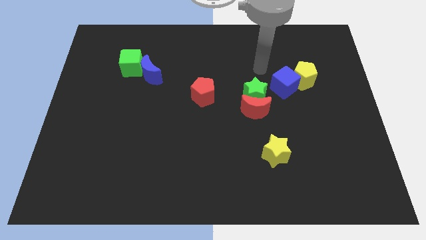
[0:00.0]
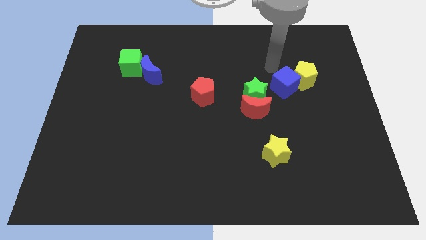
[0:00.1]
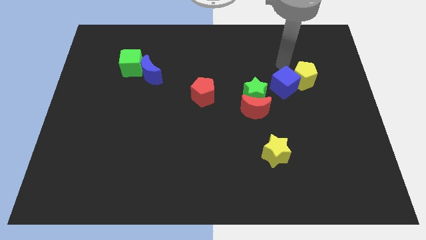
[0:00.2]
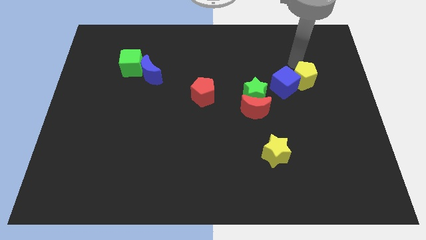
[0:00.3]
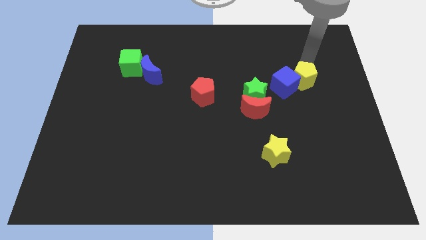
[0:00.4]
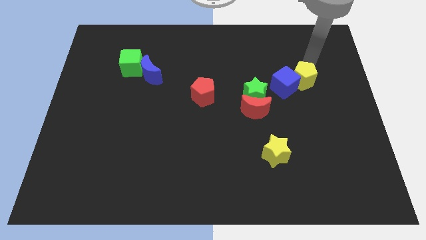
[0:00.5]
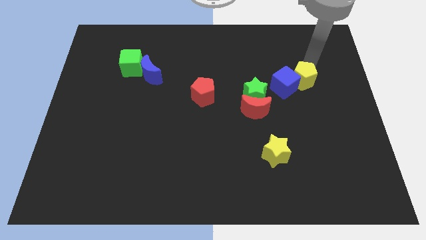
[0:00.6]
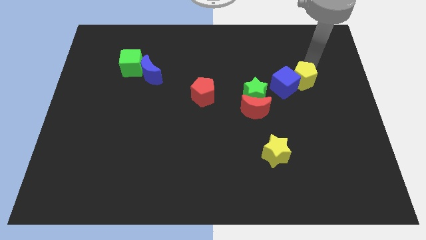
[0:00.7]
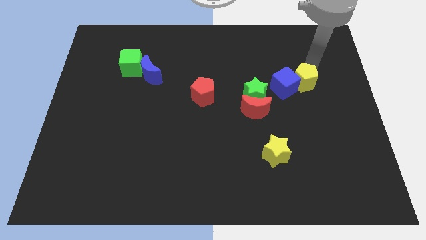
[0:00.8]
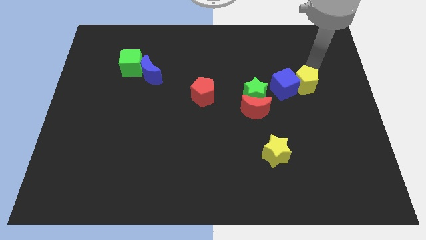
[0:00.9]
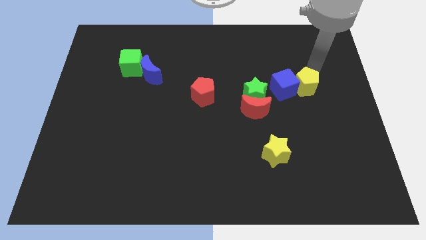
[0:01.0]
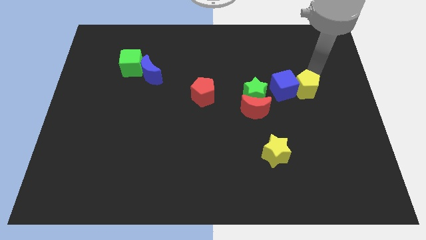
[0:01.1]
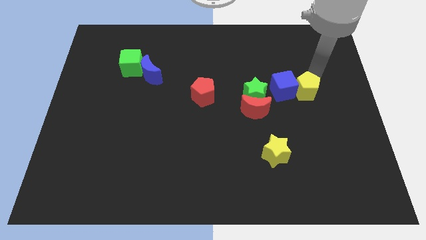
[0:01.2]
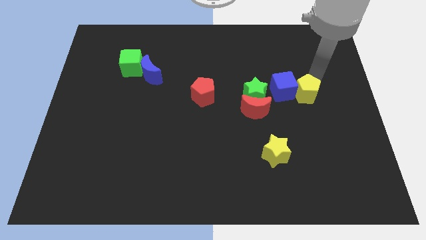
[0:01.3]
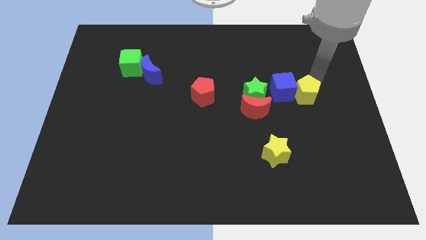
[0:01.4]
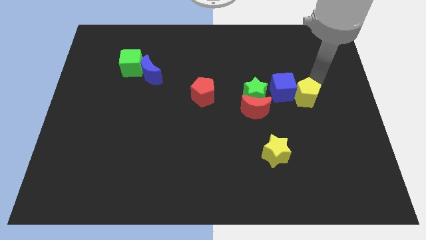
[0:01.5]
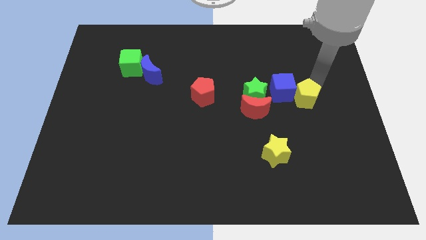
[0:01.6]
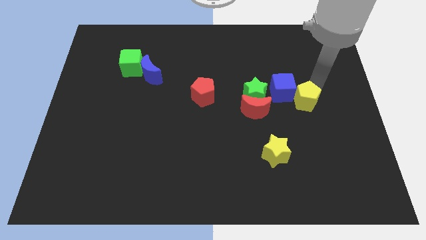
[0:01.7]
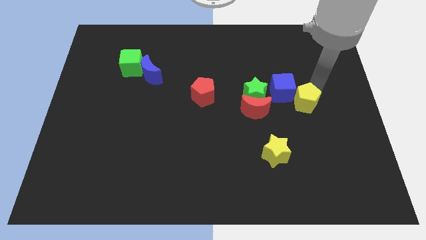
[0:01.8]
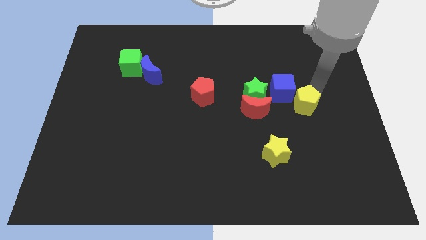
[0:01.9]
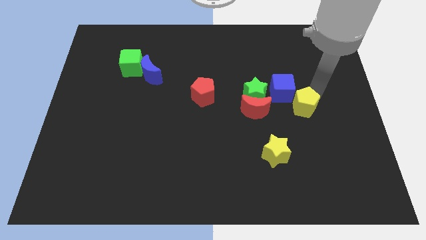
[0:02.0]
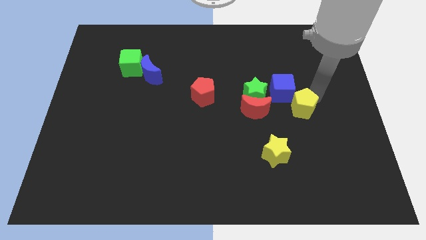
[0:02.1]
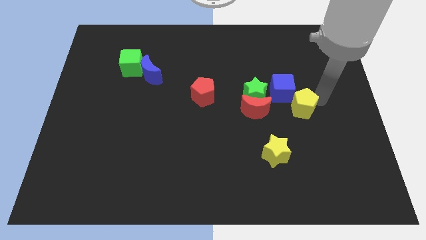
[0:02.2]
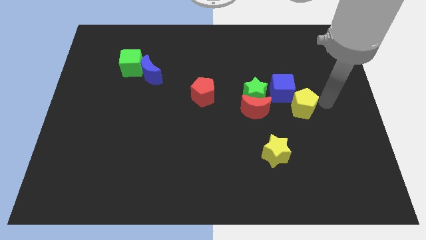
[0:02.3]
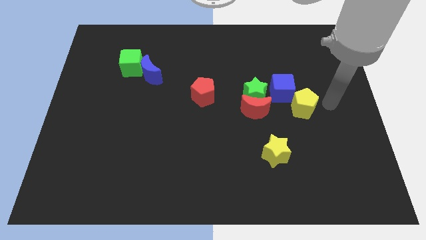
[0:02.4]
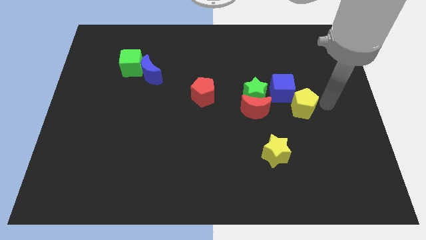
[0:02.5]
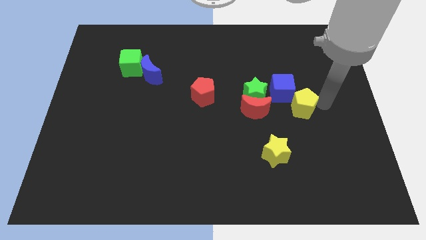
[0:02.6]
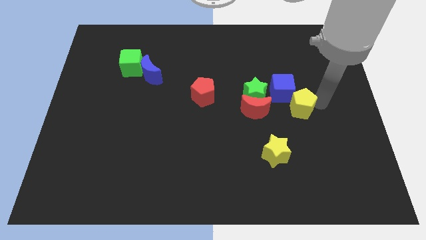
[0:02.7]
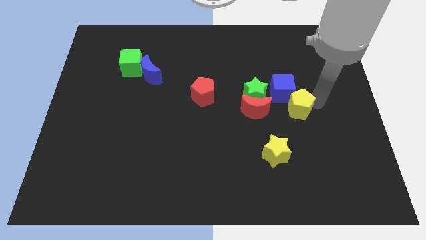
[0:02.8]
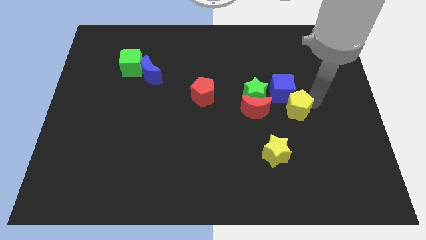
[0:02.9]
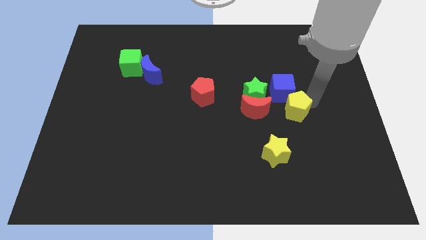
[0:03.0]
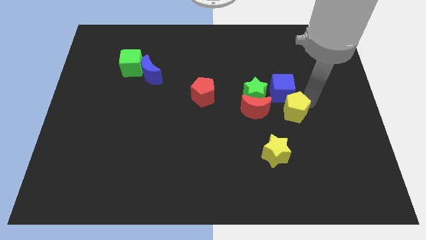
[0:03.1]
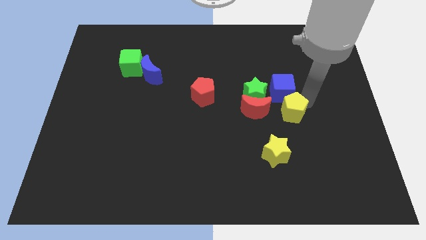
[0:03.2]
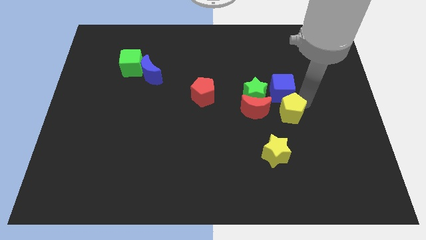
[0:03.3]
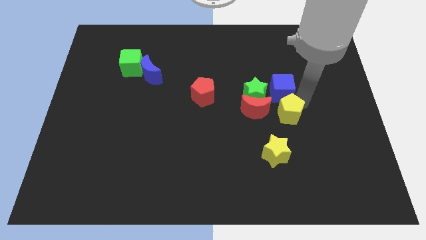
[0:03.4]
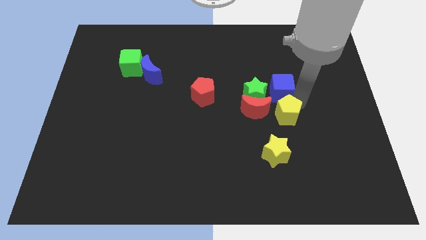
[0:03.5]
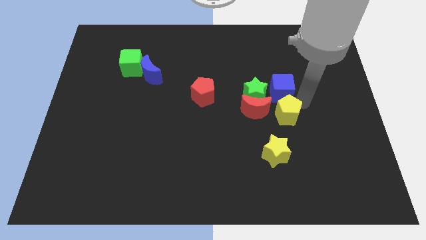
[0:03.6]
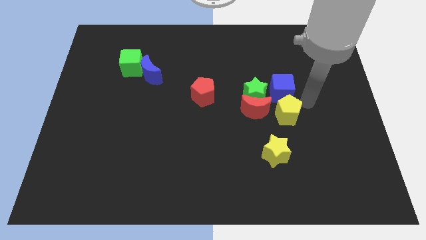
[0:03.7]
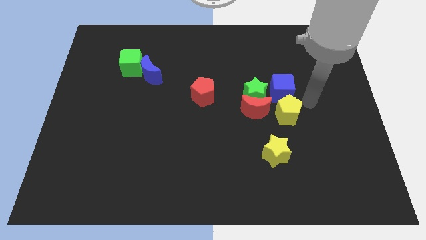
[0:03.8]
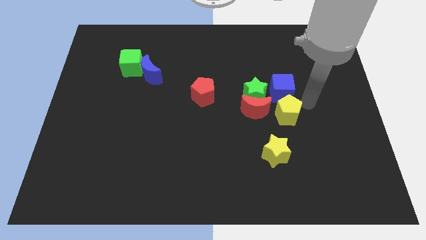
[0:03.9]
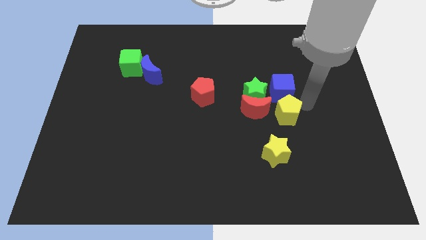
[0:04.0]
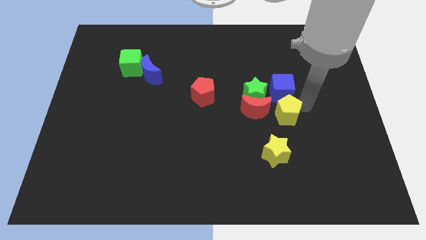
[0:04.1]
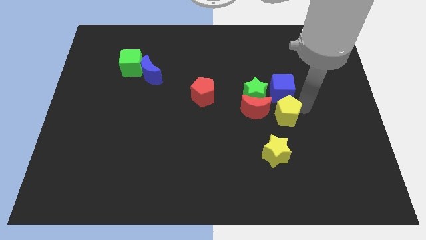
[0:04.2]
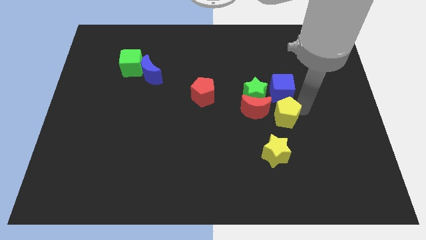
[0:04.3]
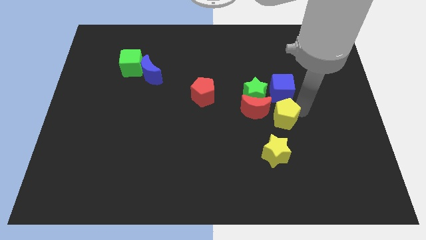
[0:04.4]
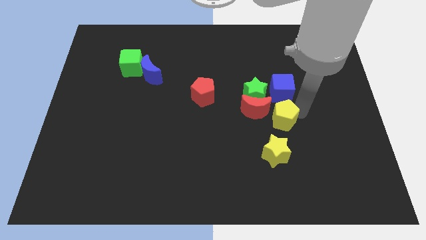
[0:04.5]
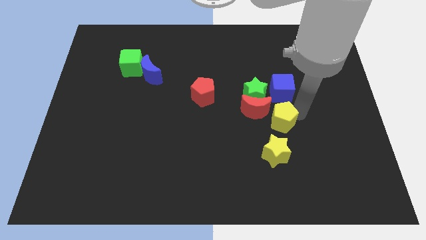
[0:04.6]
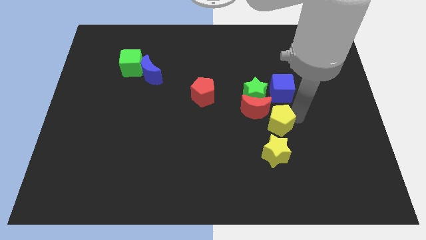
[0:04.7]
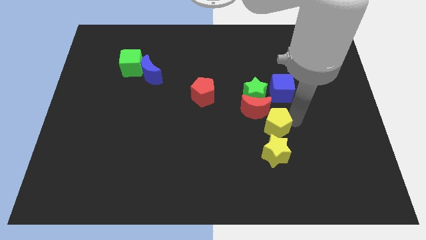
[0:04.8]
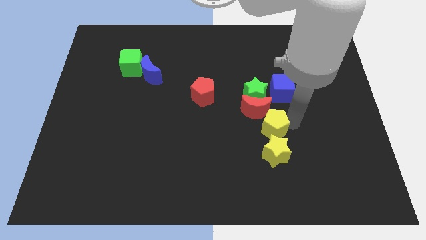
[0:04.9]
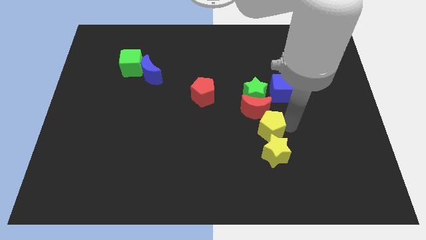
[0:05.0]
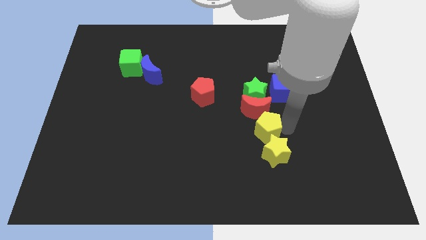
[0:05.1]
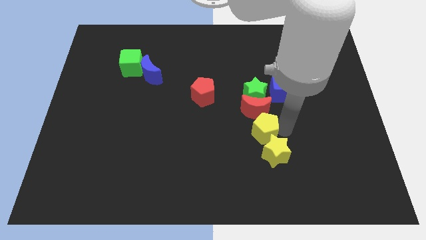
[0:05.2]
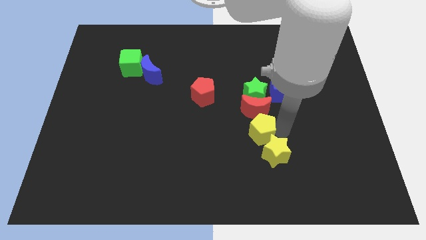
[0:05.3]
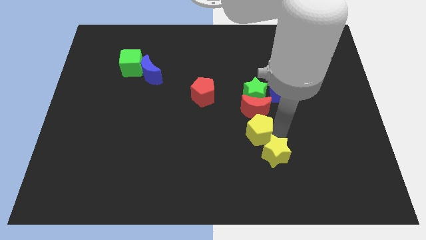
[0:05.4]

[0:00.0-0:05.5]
slide the yellow pentagon to the bottom left of the red moon

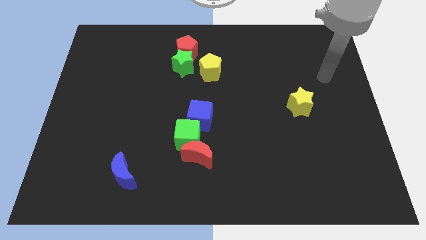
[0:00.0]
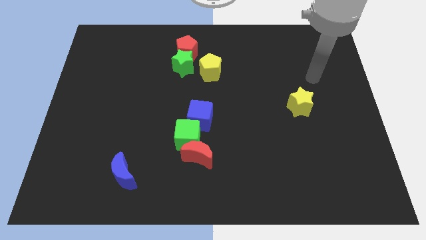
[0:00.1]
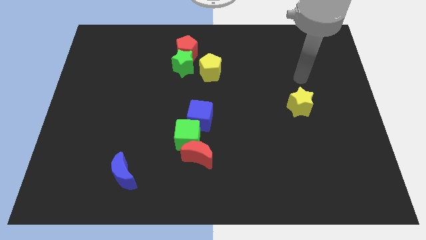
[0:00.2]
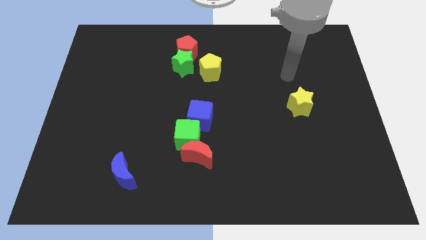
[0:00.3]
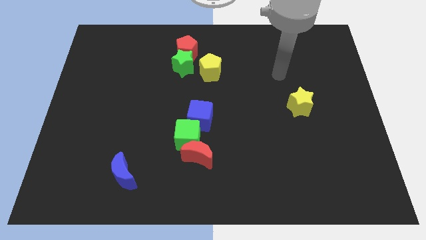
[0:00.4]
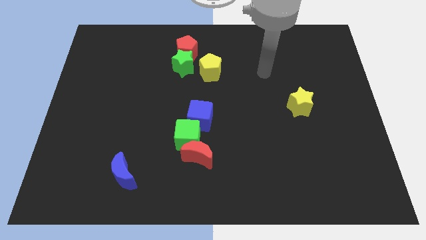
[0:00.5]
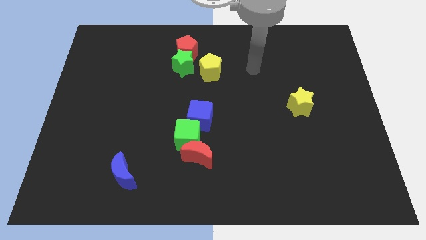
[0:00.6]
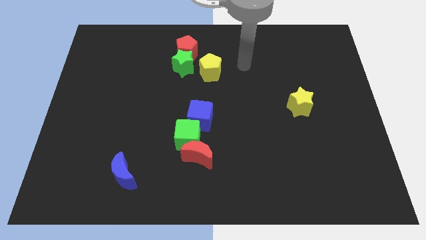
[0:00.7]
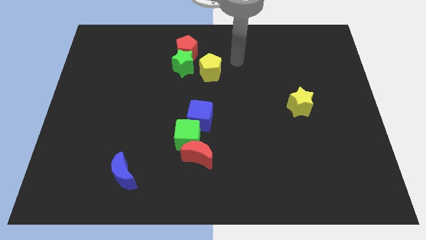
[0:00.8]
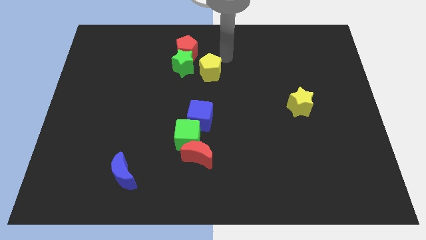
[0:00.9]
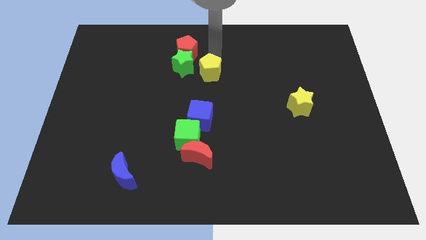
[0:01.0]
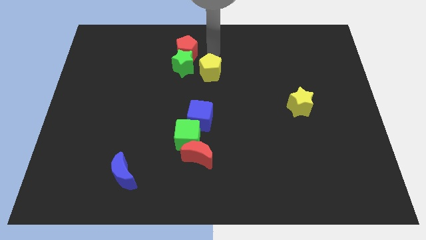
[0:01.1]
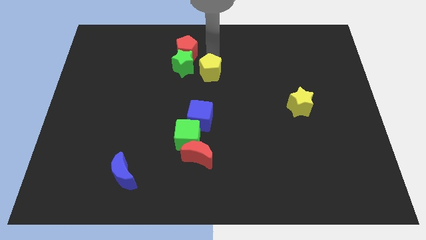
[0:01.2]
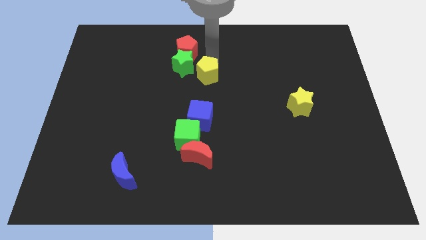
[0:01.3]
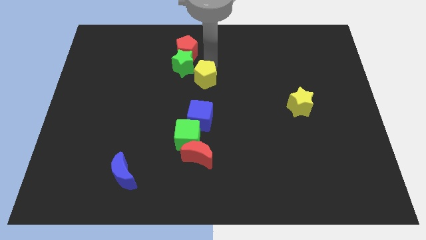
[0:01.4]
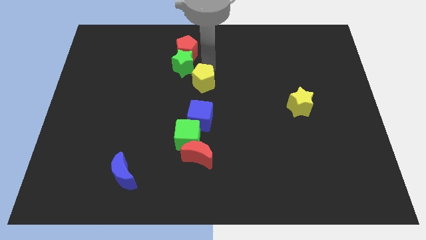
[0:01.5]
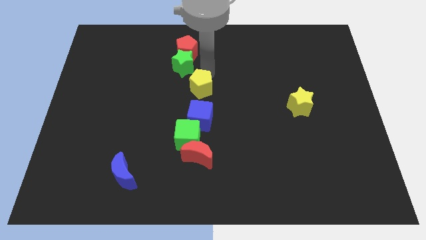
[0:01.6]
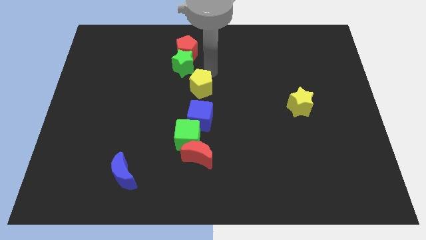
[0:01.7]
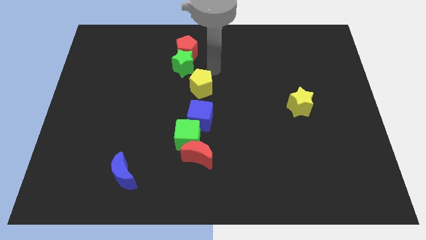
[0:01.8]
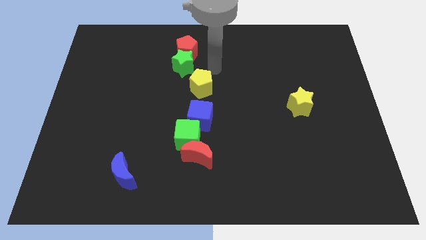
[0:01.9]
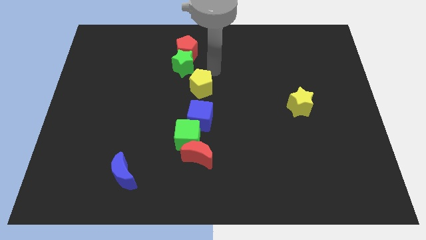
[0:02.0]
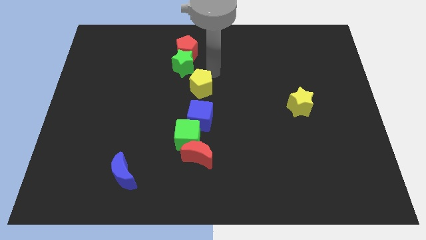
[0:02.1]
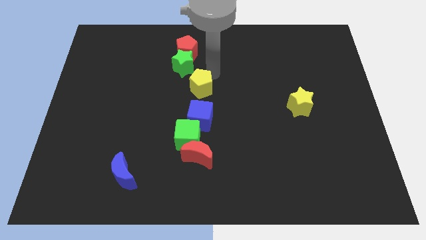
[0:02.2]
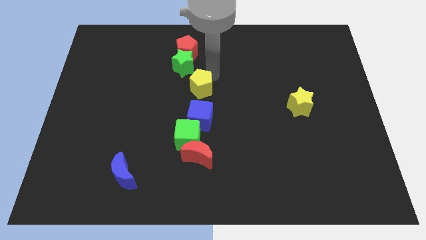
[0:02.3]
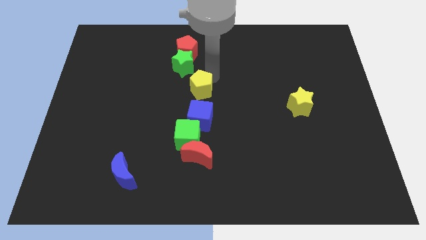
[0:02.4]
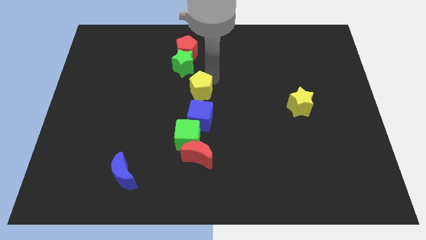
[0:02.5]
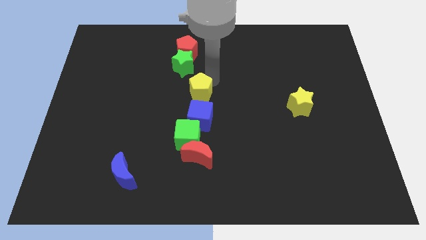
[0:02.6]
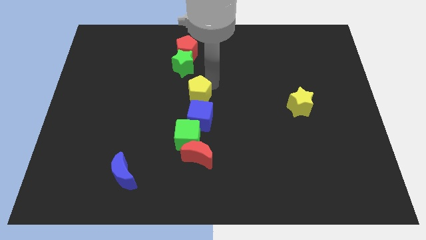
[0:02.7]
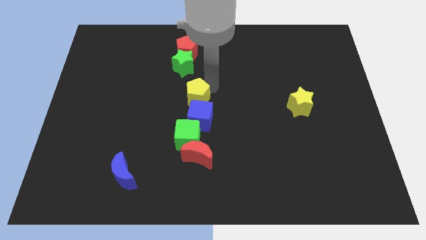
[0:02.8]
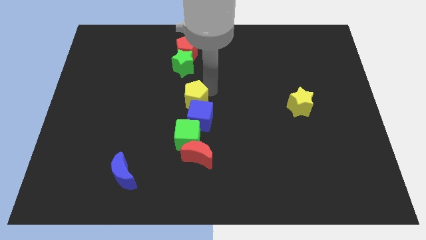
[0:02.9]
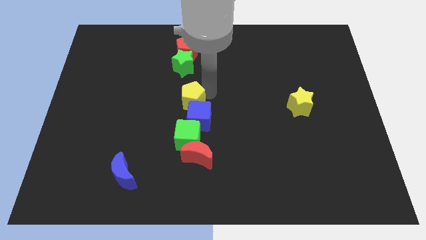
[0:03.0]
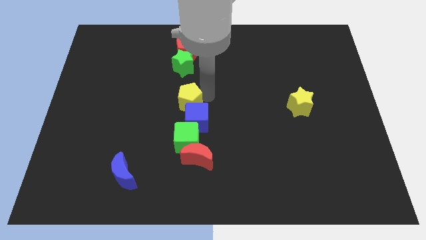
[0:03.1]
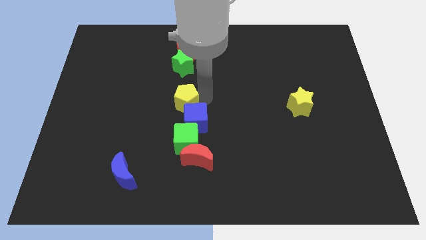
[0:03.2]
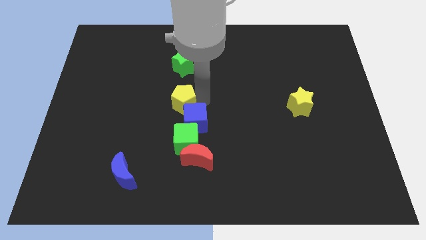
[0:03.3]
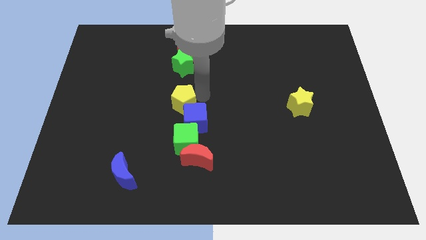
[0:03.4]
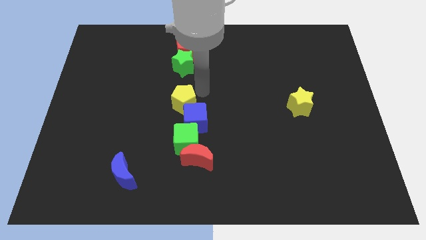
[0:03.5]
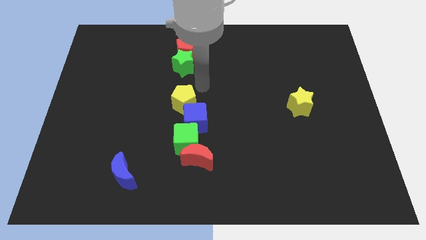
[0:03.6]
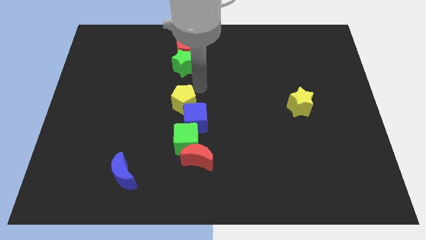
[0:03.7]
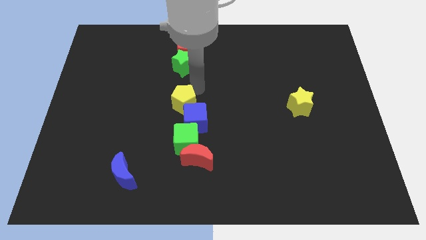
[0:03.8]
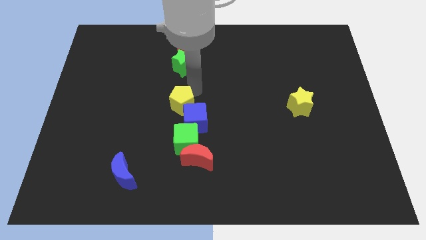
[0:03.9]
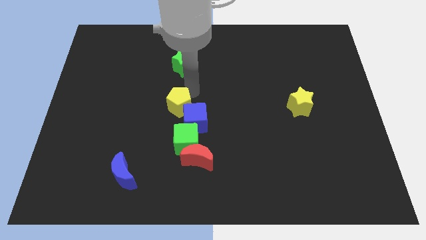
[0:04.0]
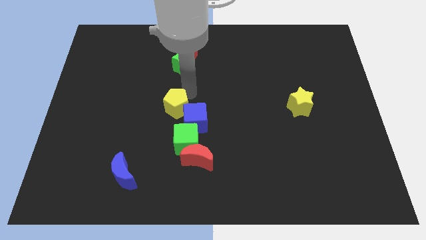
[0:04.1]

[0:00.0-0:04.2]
slide the yellow pentagon to the top left of the green cube
